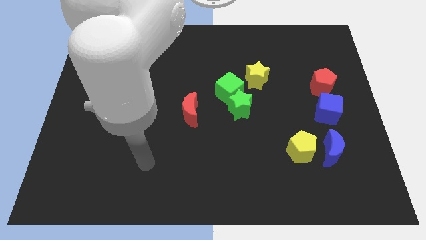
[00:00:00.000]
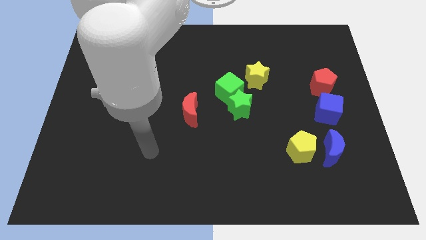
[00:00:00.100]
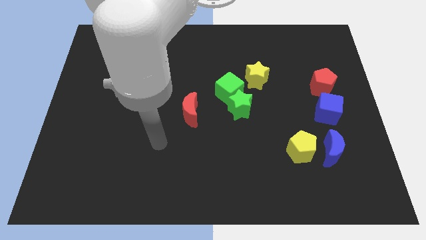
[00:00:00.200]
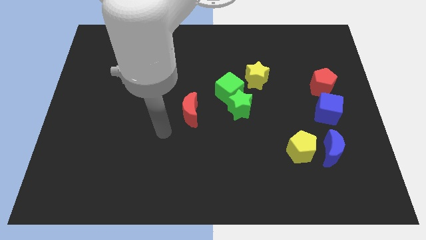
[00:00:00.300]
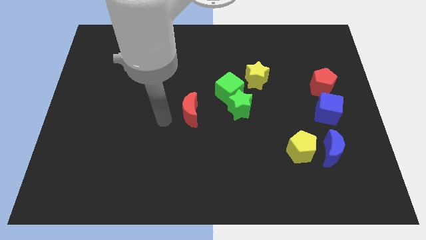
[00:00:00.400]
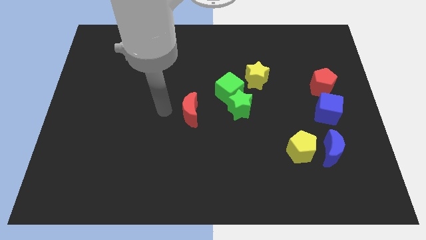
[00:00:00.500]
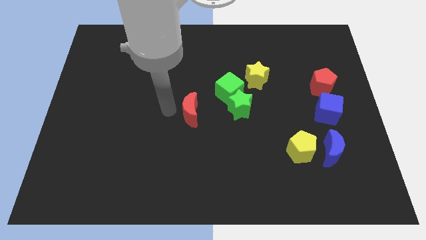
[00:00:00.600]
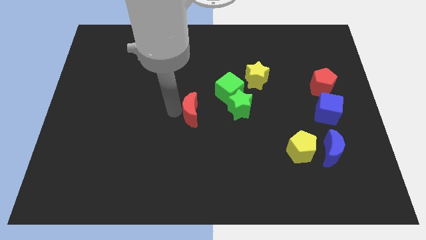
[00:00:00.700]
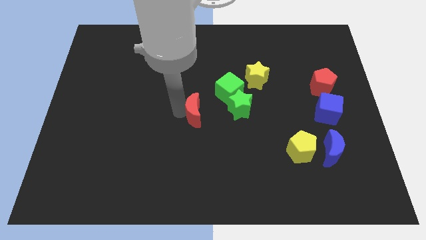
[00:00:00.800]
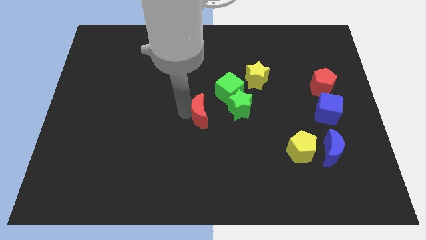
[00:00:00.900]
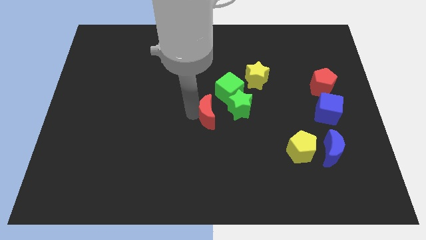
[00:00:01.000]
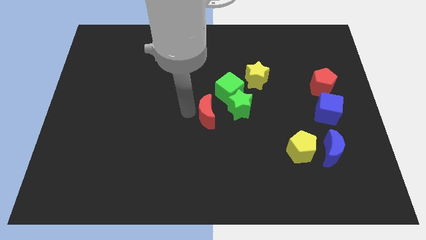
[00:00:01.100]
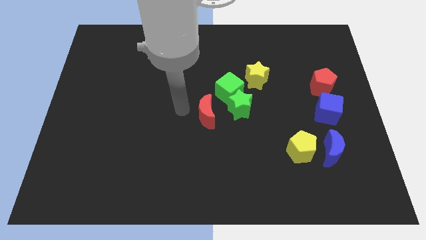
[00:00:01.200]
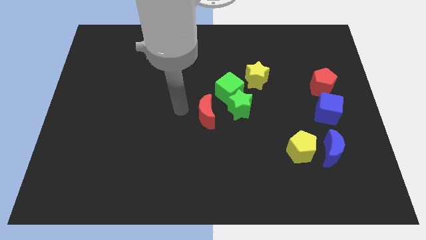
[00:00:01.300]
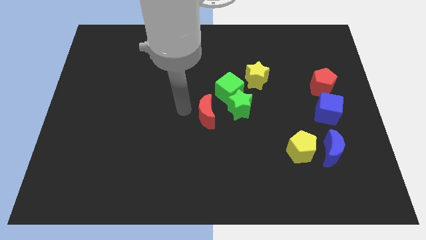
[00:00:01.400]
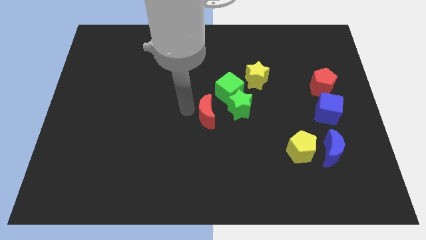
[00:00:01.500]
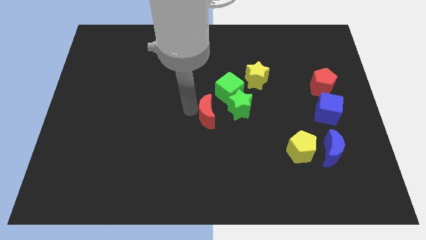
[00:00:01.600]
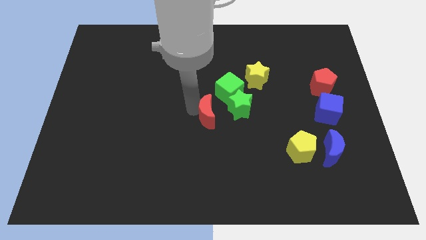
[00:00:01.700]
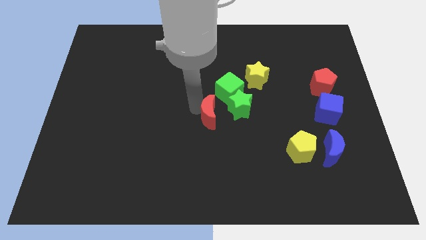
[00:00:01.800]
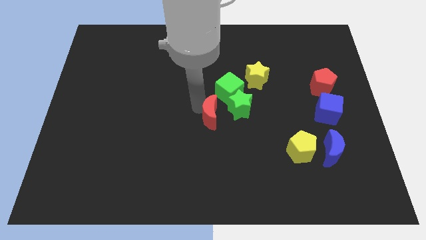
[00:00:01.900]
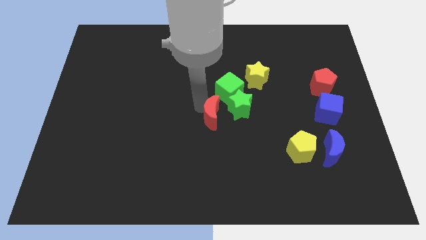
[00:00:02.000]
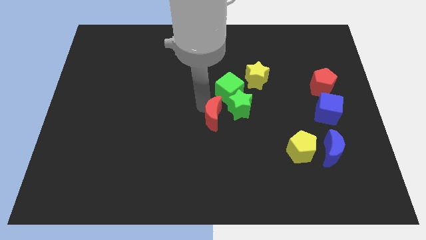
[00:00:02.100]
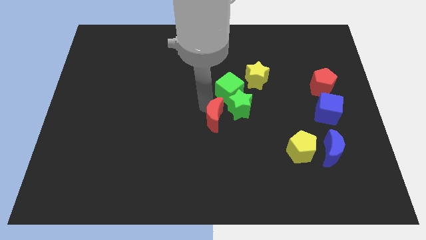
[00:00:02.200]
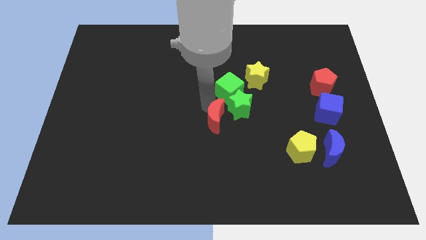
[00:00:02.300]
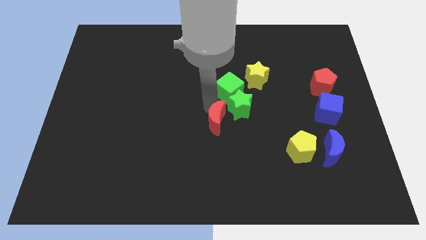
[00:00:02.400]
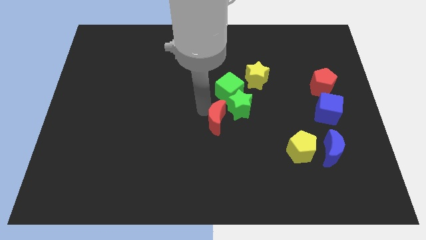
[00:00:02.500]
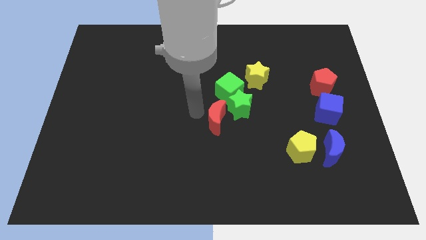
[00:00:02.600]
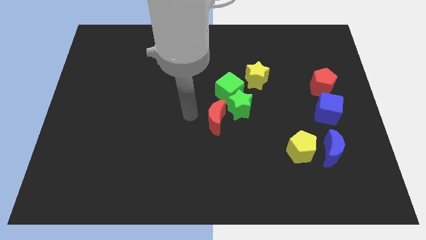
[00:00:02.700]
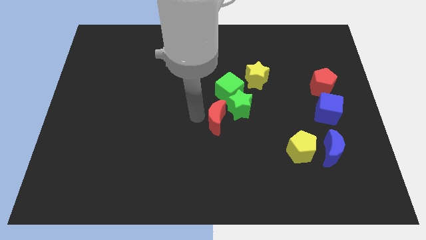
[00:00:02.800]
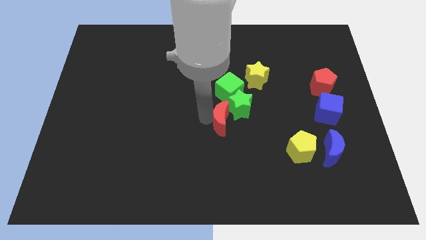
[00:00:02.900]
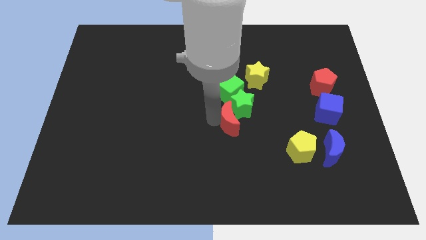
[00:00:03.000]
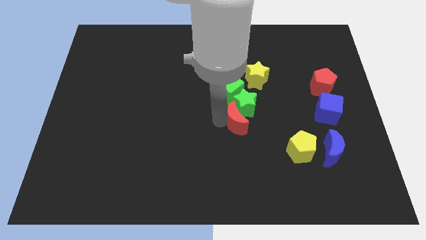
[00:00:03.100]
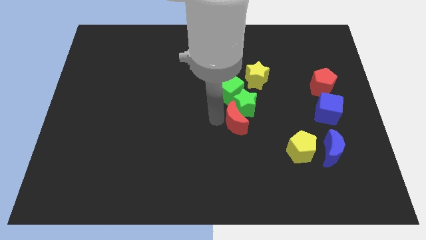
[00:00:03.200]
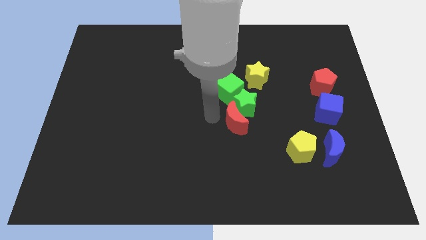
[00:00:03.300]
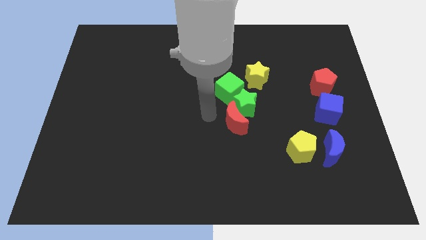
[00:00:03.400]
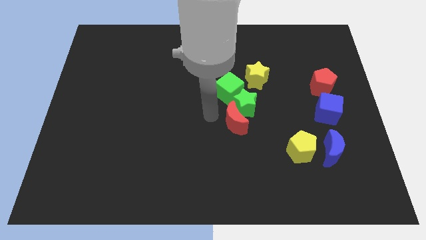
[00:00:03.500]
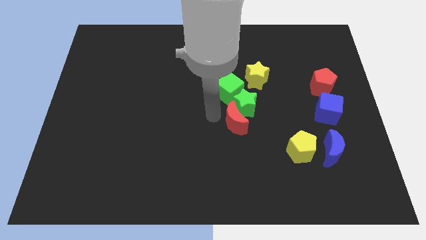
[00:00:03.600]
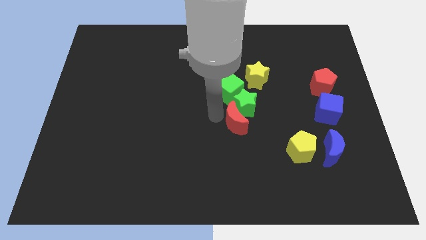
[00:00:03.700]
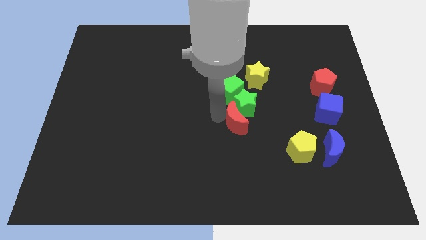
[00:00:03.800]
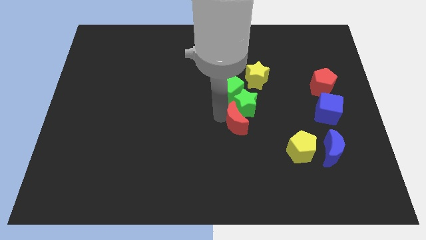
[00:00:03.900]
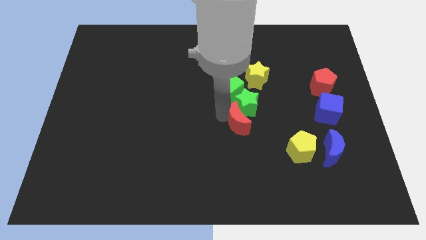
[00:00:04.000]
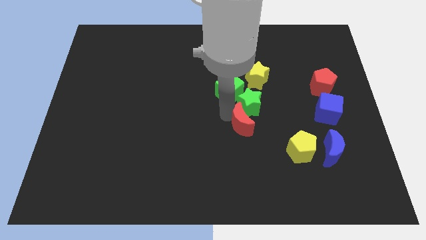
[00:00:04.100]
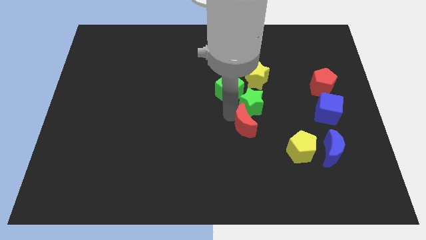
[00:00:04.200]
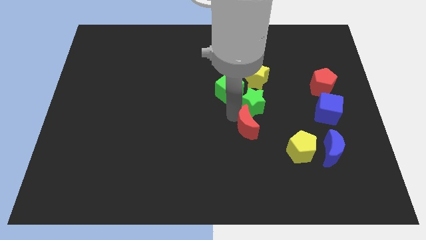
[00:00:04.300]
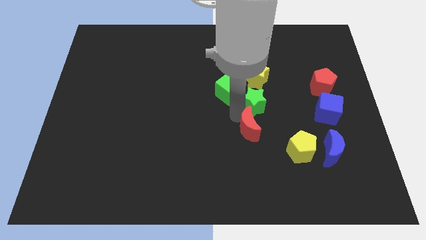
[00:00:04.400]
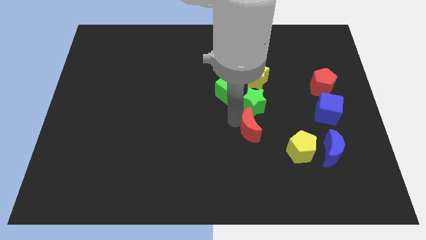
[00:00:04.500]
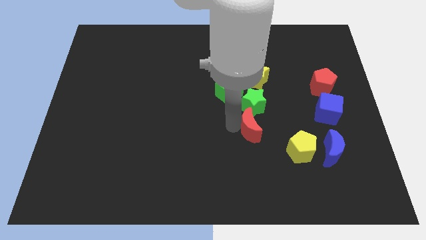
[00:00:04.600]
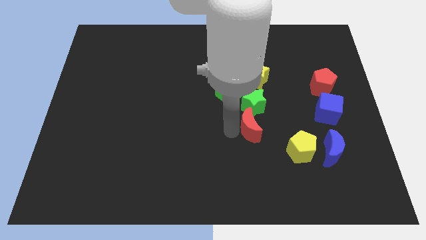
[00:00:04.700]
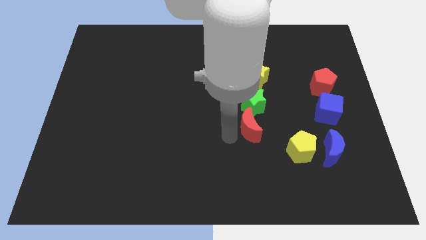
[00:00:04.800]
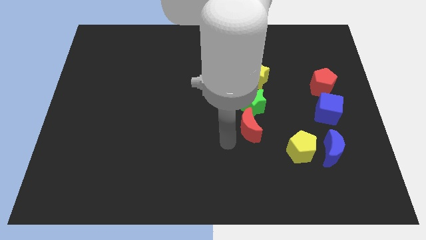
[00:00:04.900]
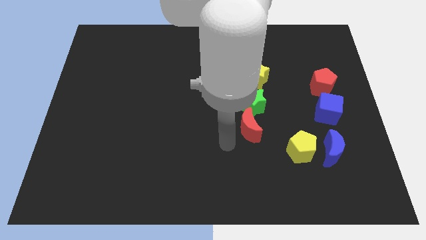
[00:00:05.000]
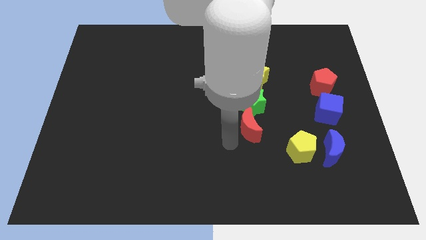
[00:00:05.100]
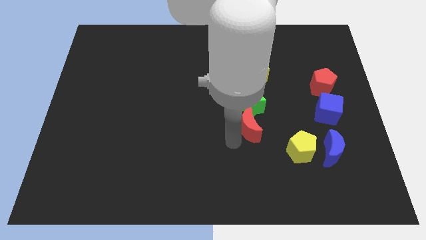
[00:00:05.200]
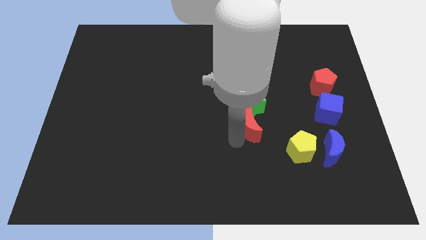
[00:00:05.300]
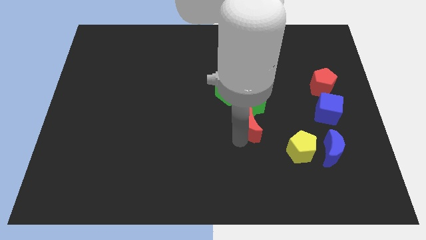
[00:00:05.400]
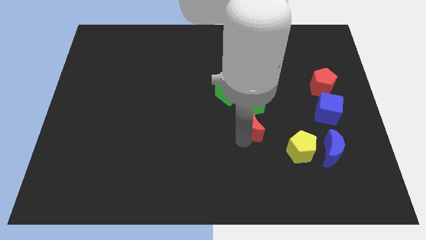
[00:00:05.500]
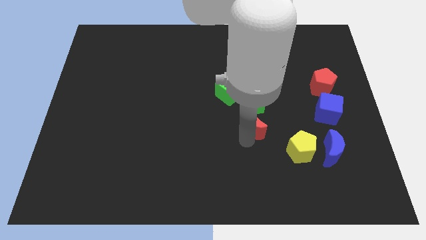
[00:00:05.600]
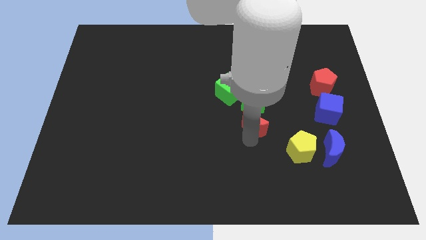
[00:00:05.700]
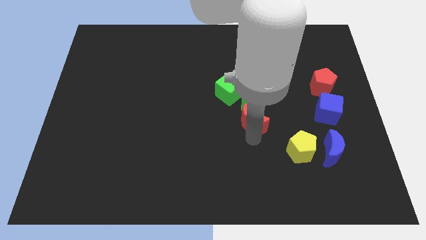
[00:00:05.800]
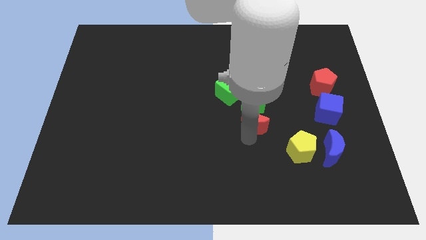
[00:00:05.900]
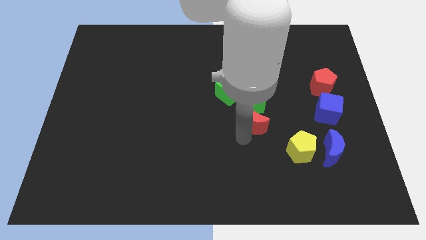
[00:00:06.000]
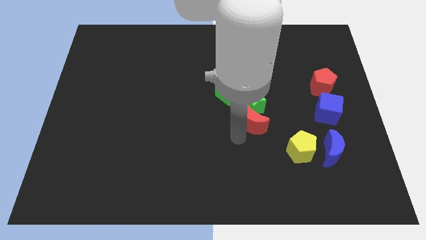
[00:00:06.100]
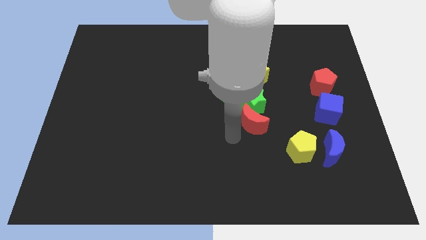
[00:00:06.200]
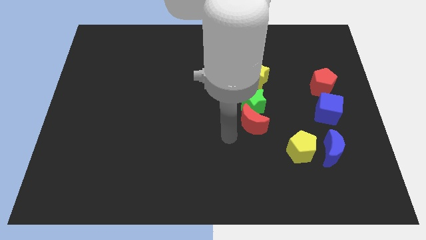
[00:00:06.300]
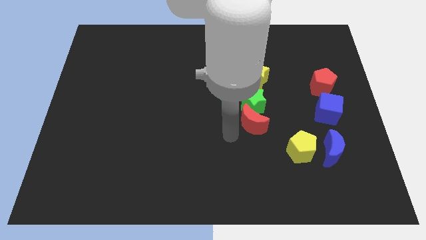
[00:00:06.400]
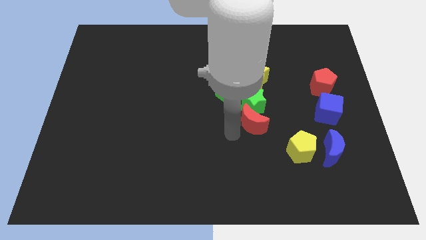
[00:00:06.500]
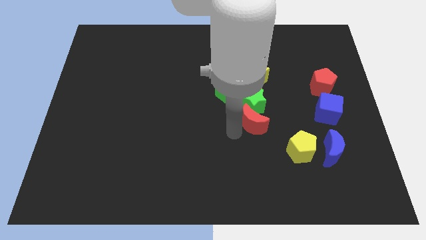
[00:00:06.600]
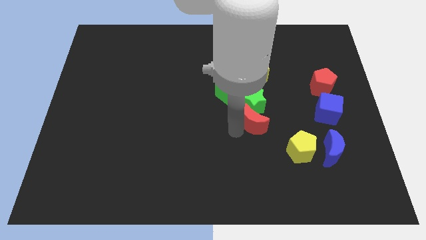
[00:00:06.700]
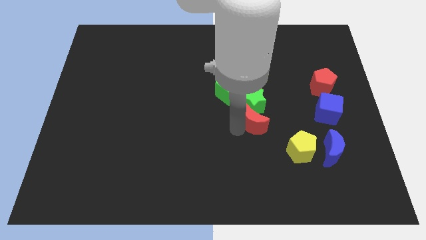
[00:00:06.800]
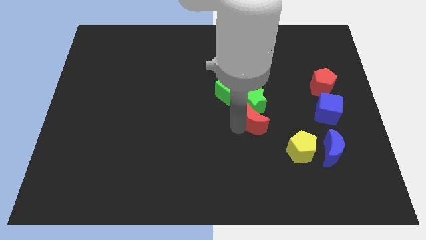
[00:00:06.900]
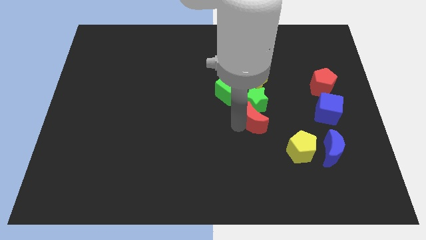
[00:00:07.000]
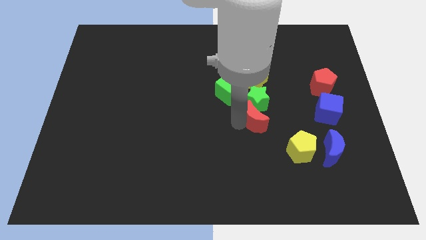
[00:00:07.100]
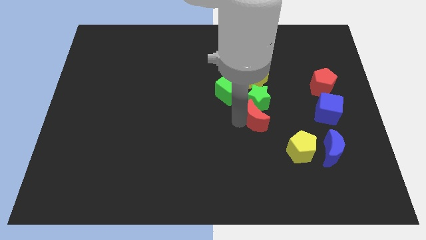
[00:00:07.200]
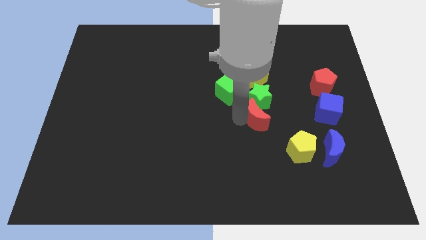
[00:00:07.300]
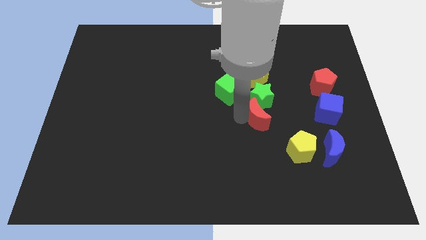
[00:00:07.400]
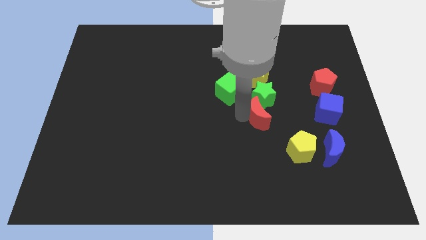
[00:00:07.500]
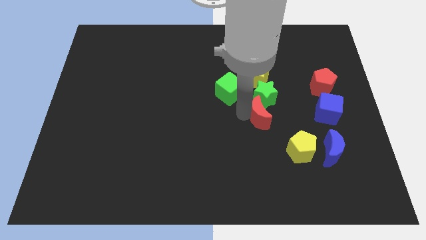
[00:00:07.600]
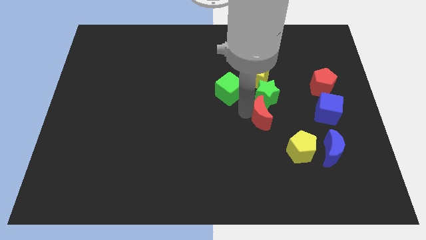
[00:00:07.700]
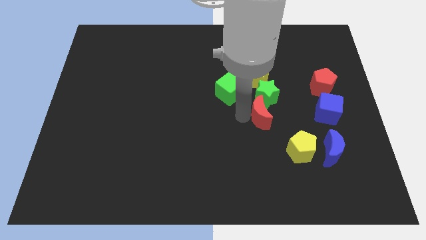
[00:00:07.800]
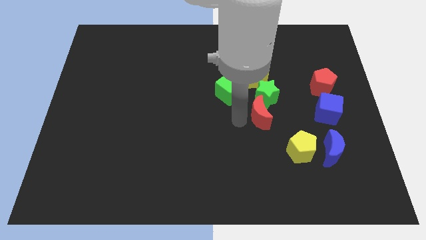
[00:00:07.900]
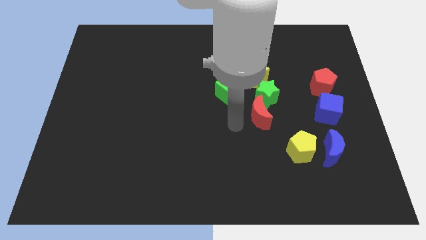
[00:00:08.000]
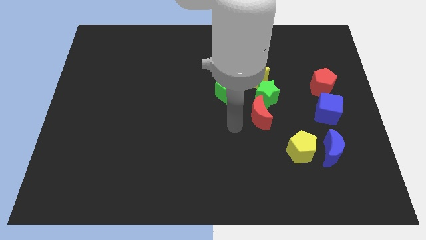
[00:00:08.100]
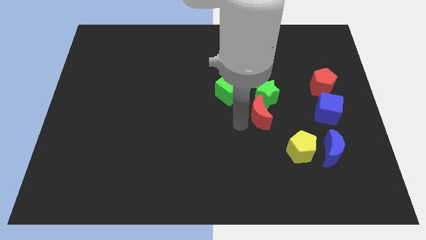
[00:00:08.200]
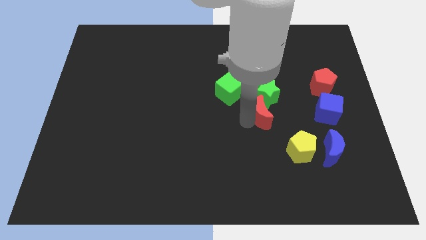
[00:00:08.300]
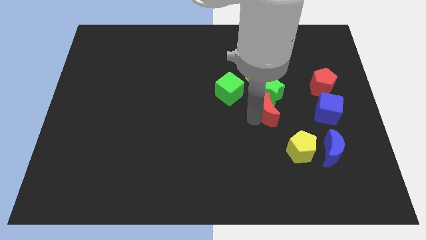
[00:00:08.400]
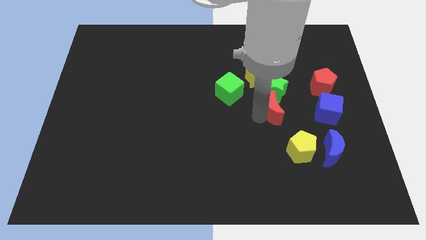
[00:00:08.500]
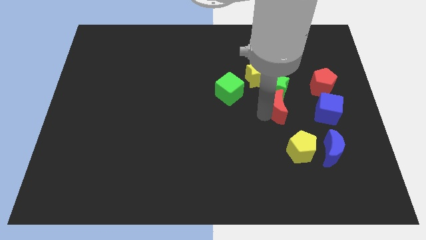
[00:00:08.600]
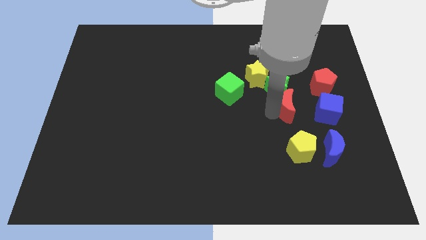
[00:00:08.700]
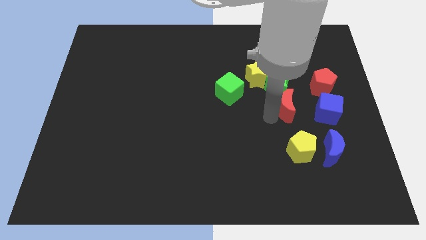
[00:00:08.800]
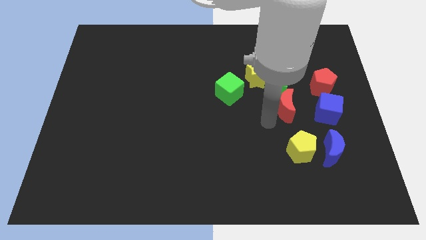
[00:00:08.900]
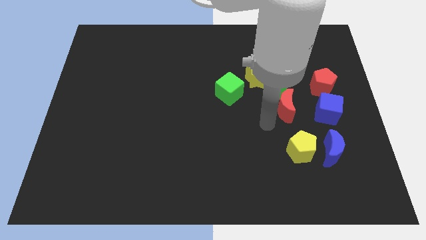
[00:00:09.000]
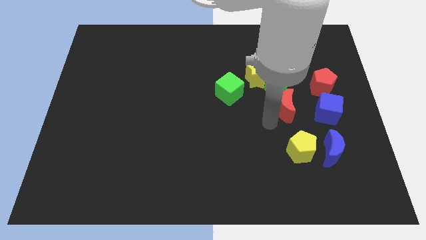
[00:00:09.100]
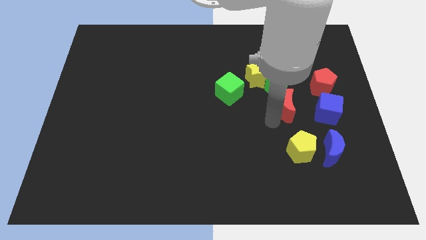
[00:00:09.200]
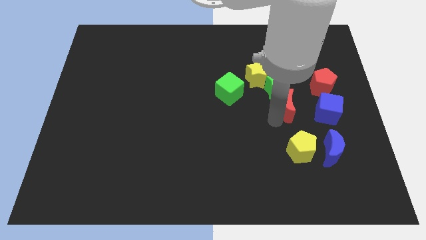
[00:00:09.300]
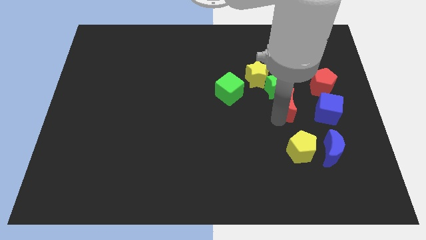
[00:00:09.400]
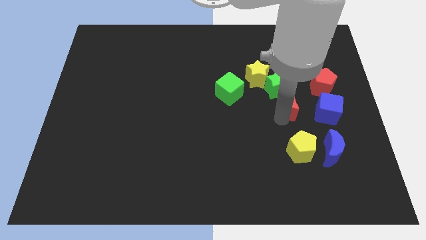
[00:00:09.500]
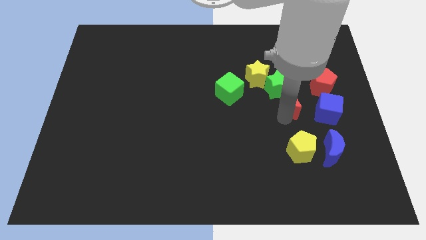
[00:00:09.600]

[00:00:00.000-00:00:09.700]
move the red moon diagonally up and to the left of the blue cube
